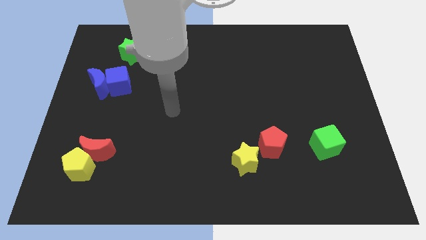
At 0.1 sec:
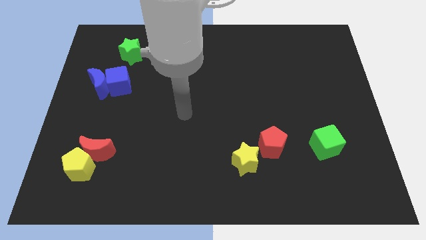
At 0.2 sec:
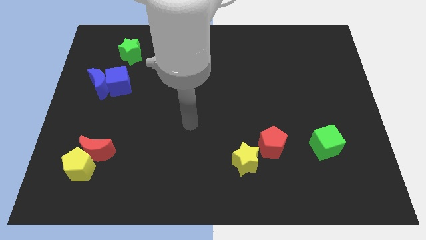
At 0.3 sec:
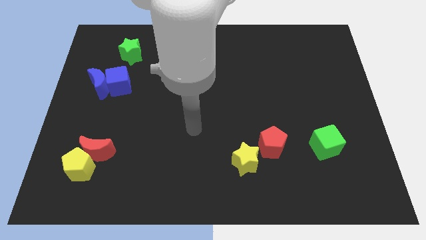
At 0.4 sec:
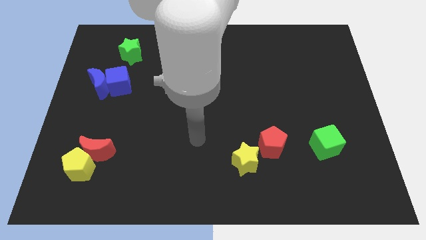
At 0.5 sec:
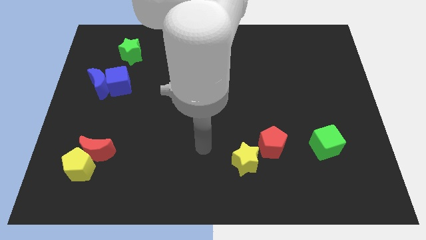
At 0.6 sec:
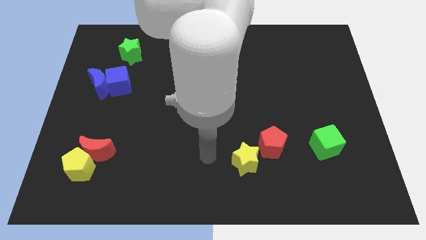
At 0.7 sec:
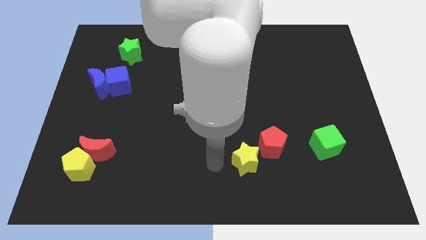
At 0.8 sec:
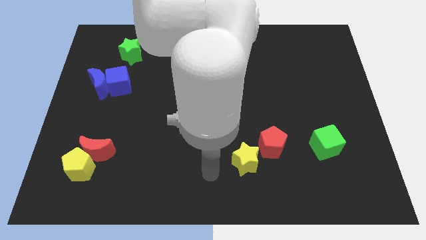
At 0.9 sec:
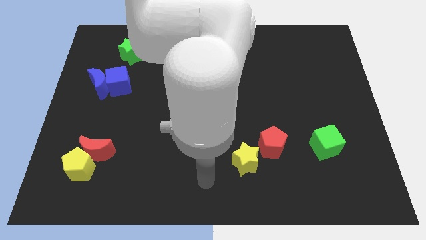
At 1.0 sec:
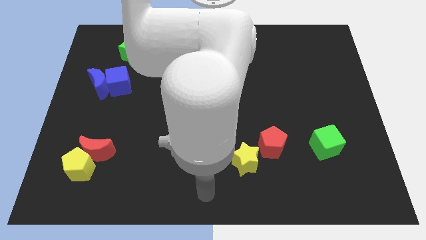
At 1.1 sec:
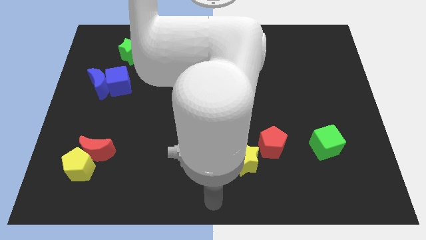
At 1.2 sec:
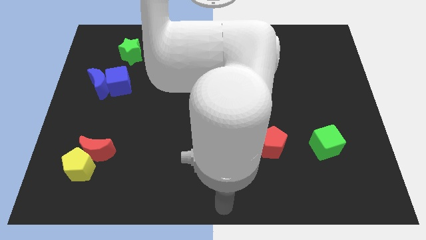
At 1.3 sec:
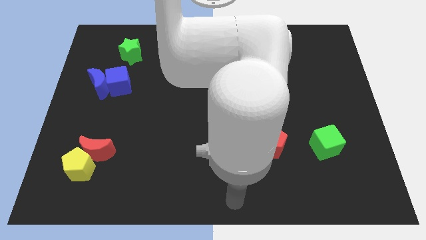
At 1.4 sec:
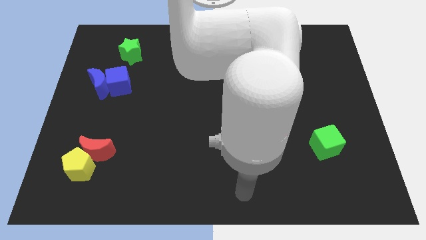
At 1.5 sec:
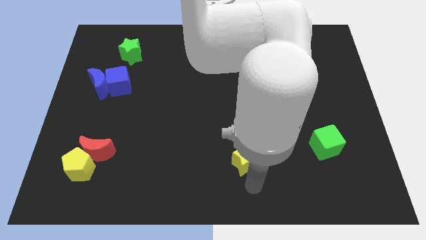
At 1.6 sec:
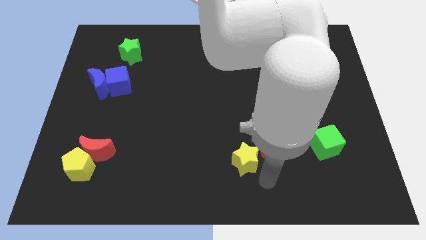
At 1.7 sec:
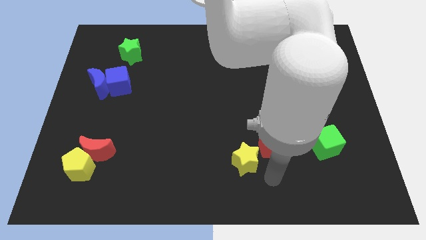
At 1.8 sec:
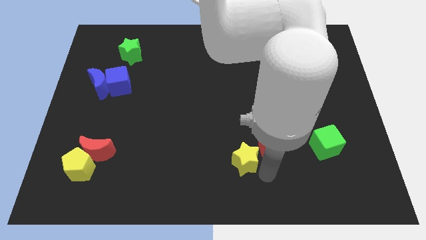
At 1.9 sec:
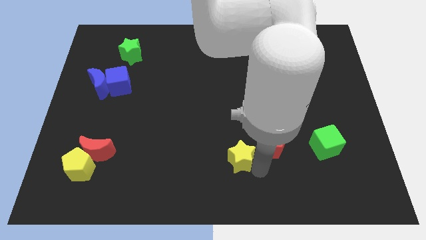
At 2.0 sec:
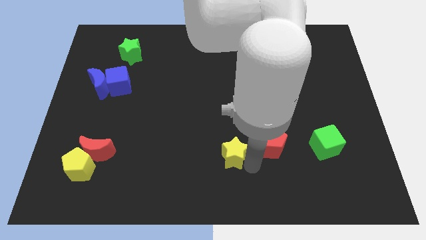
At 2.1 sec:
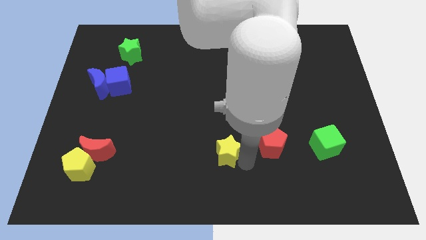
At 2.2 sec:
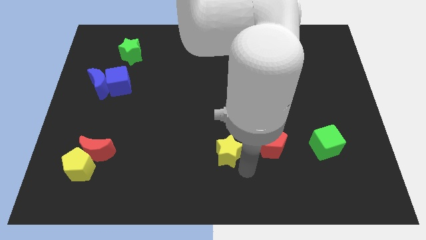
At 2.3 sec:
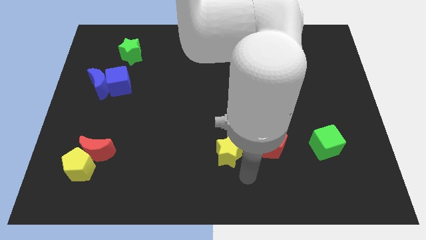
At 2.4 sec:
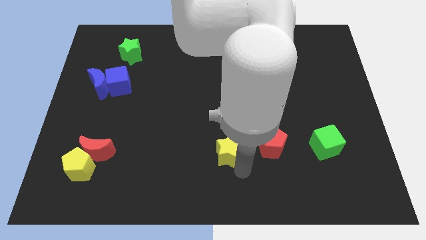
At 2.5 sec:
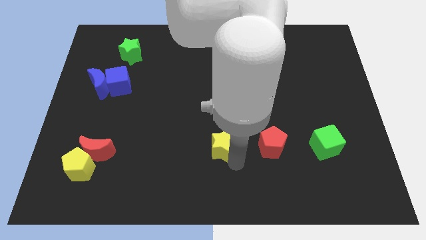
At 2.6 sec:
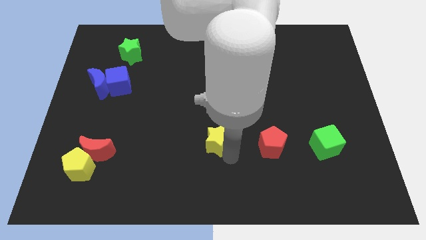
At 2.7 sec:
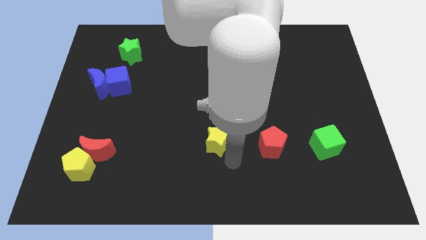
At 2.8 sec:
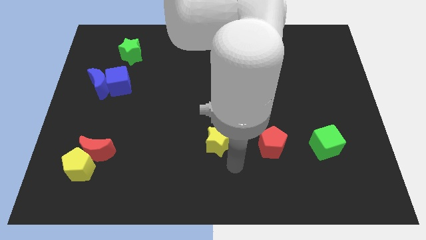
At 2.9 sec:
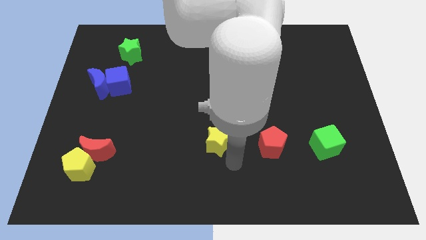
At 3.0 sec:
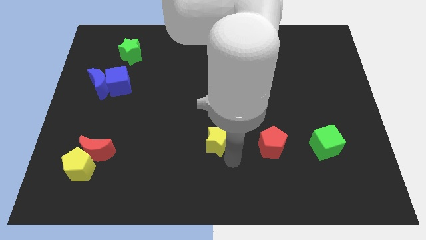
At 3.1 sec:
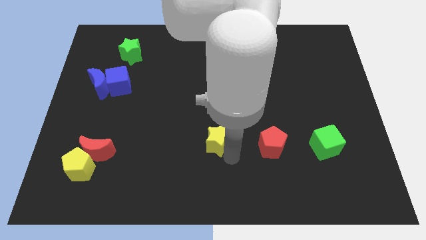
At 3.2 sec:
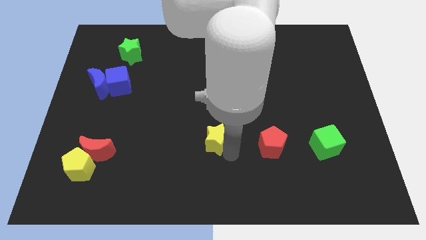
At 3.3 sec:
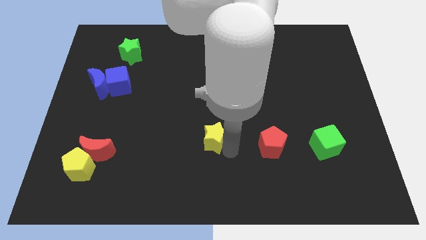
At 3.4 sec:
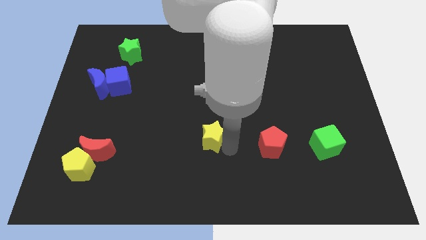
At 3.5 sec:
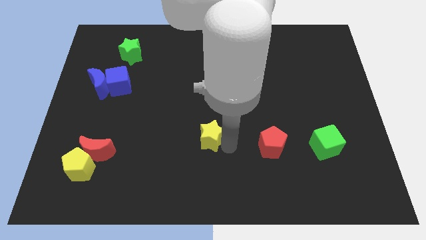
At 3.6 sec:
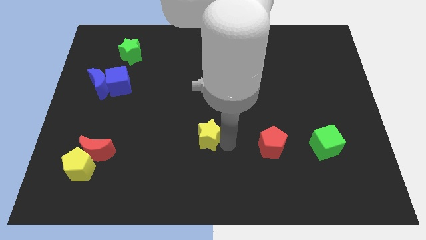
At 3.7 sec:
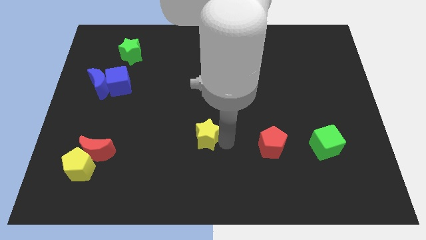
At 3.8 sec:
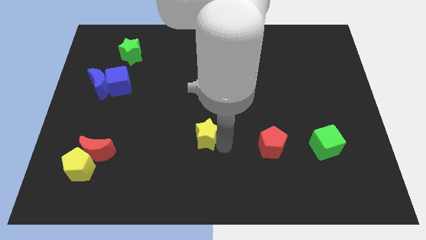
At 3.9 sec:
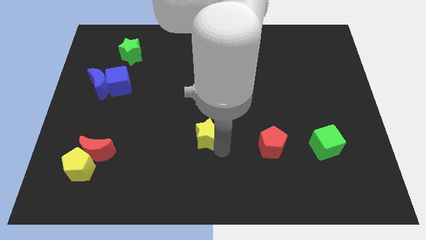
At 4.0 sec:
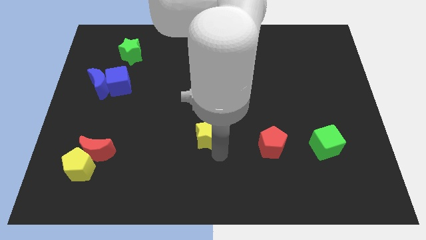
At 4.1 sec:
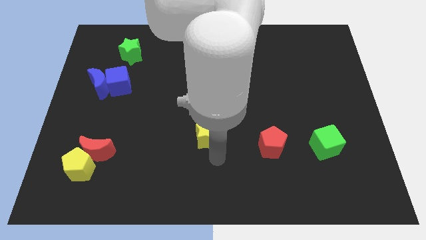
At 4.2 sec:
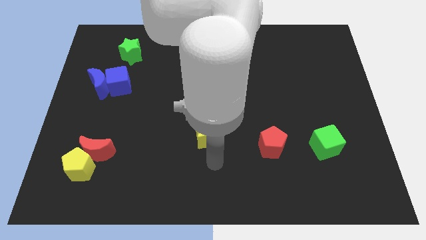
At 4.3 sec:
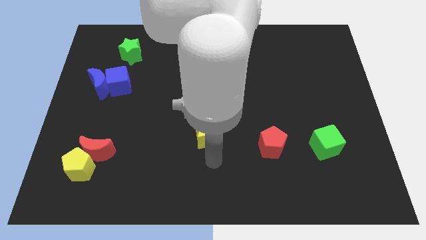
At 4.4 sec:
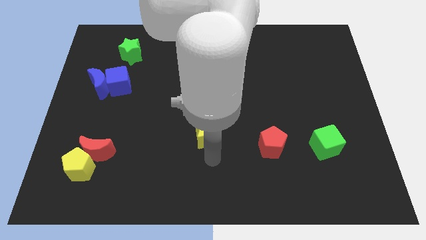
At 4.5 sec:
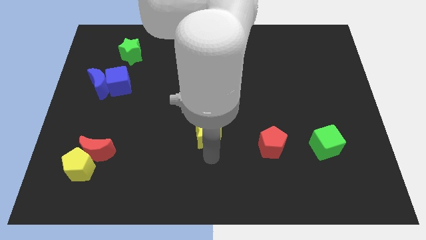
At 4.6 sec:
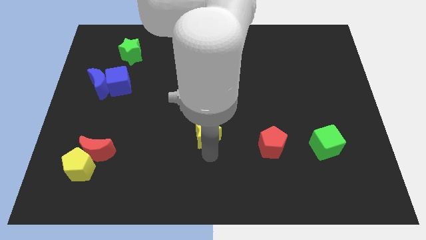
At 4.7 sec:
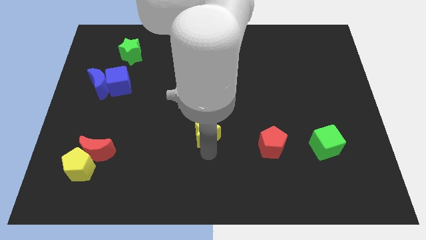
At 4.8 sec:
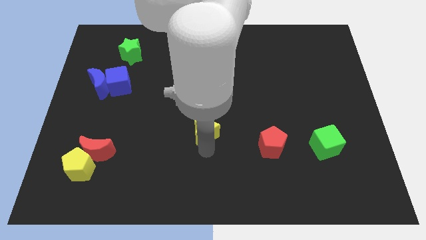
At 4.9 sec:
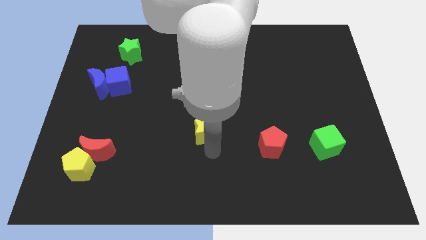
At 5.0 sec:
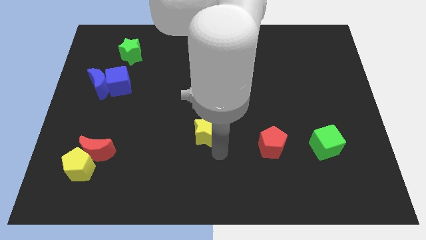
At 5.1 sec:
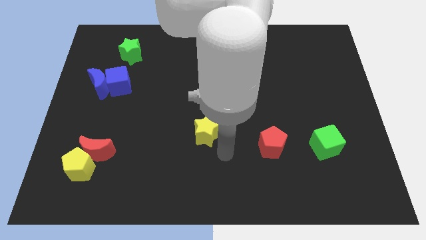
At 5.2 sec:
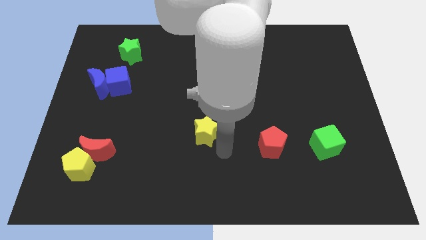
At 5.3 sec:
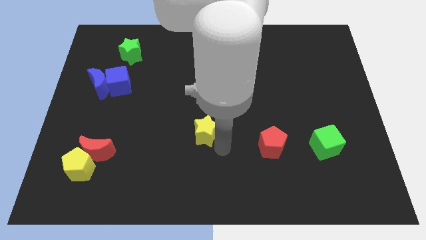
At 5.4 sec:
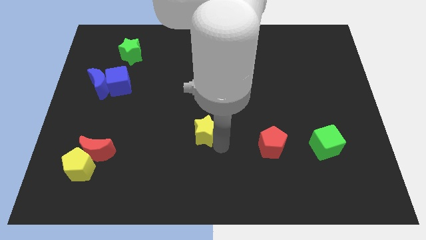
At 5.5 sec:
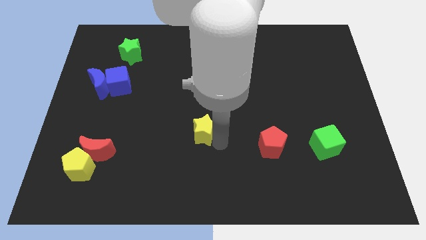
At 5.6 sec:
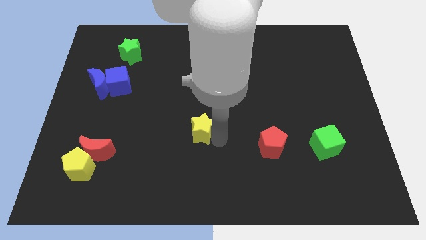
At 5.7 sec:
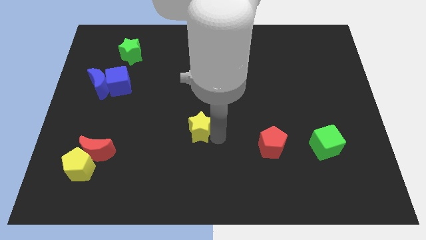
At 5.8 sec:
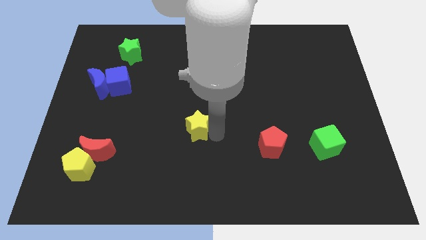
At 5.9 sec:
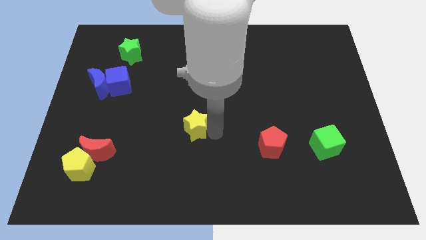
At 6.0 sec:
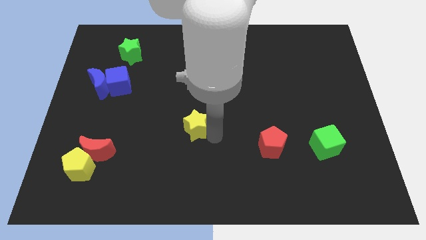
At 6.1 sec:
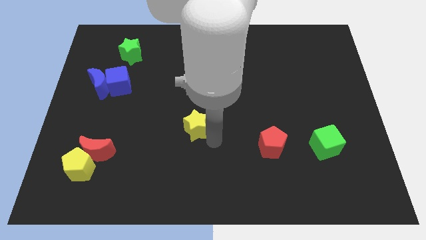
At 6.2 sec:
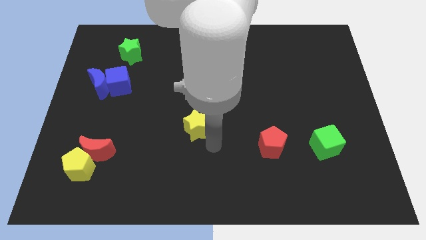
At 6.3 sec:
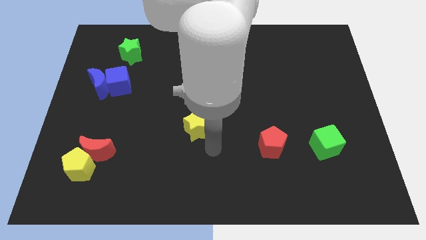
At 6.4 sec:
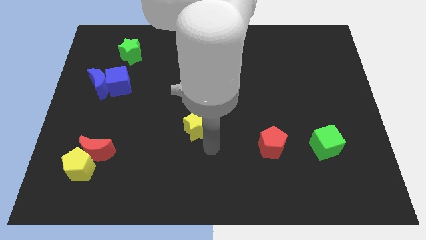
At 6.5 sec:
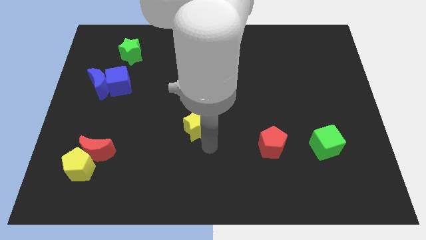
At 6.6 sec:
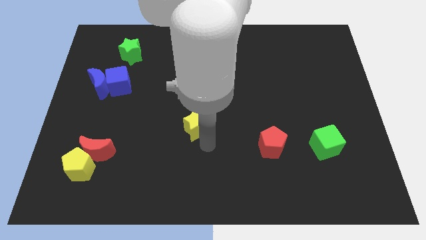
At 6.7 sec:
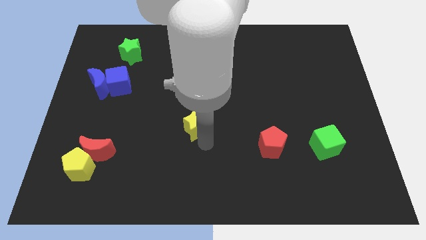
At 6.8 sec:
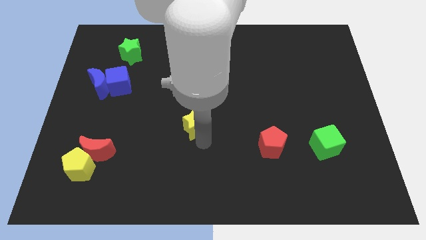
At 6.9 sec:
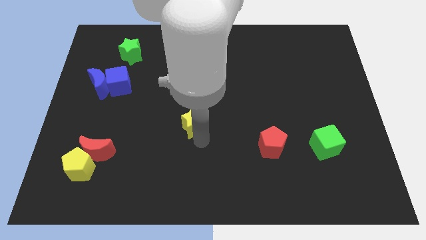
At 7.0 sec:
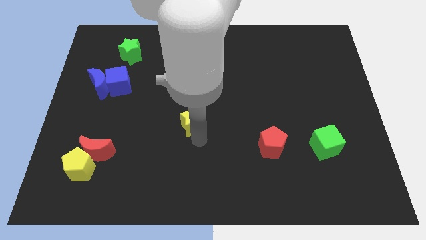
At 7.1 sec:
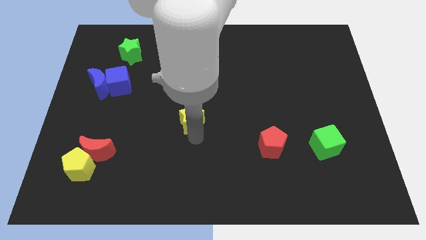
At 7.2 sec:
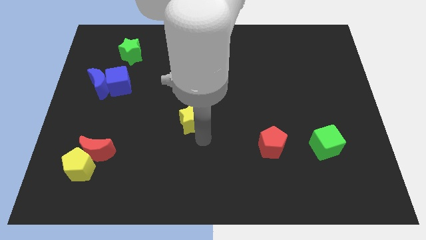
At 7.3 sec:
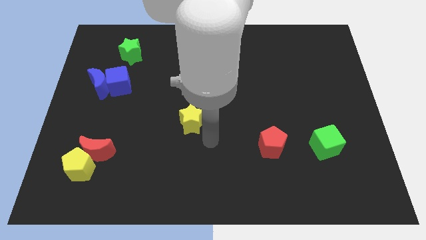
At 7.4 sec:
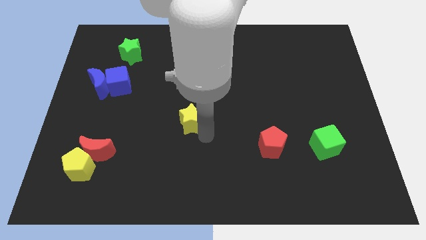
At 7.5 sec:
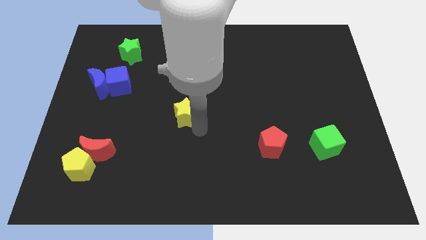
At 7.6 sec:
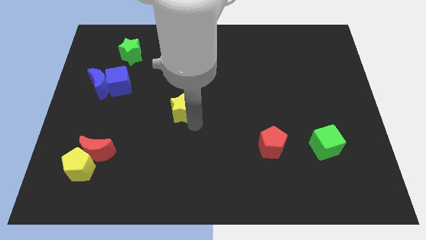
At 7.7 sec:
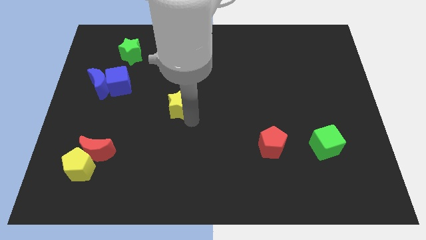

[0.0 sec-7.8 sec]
move the yellow star up and to the left
